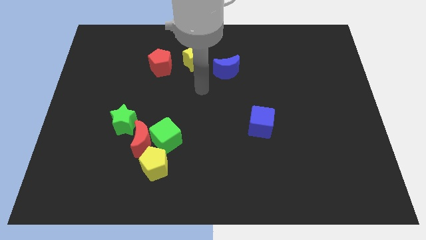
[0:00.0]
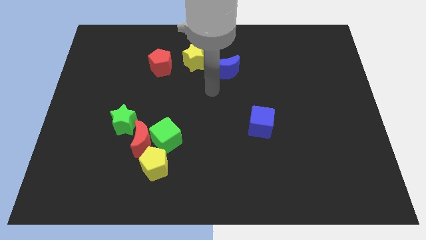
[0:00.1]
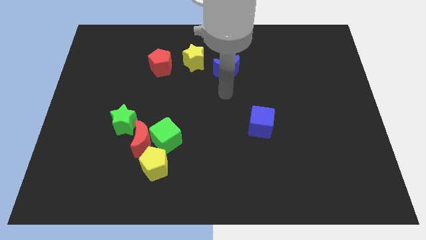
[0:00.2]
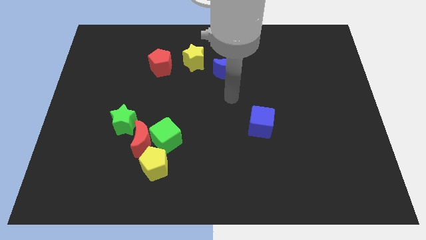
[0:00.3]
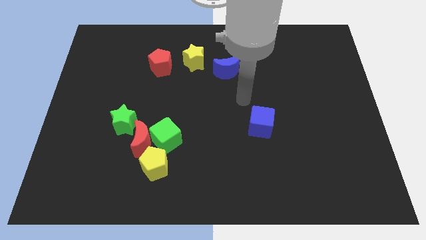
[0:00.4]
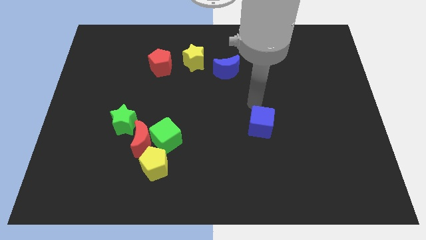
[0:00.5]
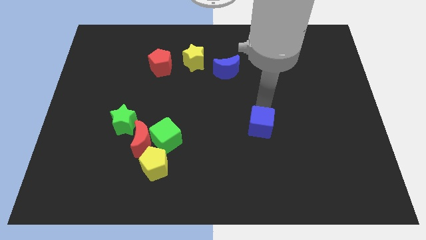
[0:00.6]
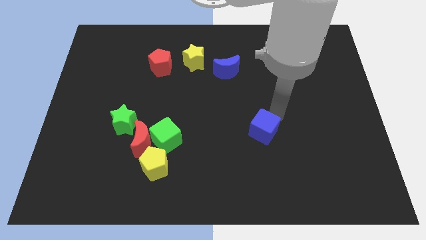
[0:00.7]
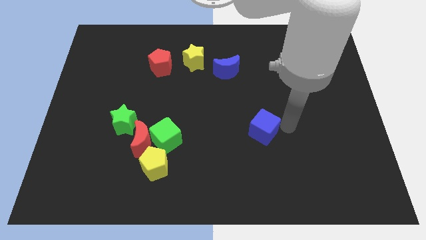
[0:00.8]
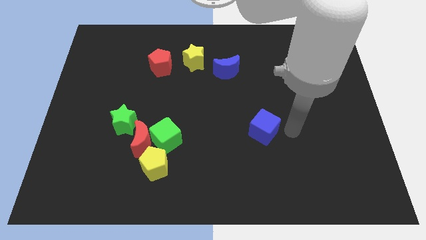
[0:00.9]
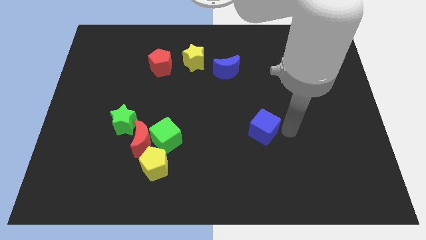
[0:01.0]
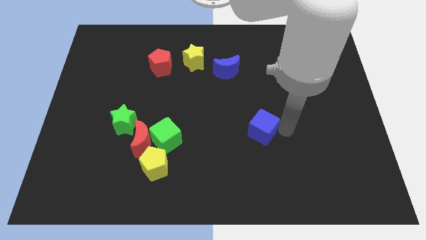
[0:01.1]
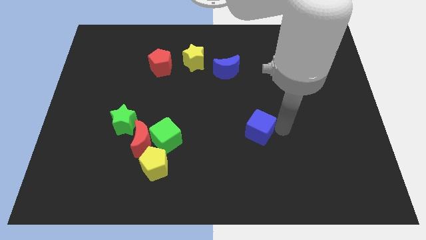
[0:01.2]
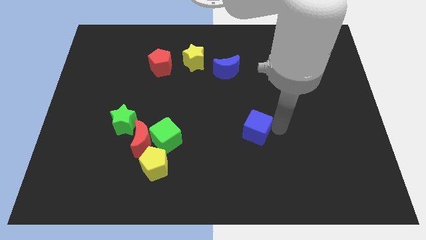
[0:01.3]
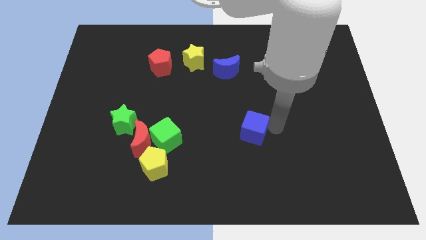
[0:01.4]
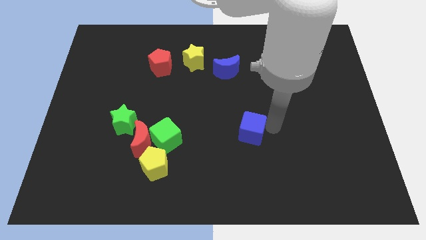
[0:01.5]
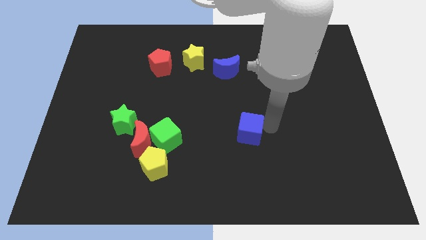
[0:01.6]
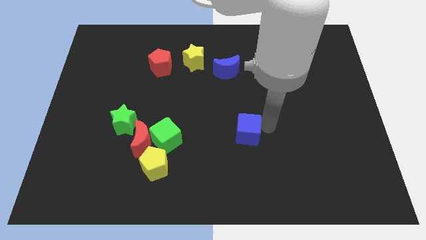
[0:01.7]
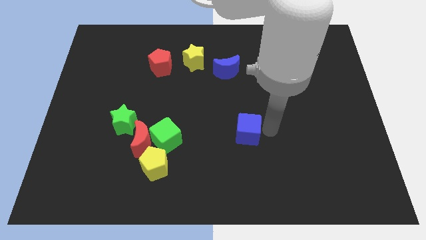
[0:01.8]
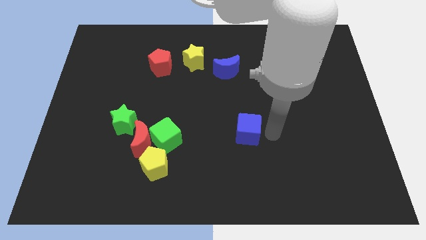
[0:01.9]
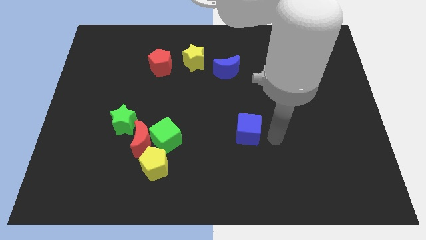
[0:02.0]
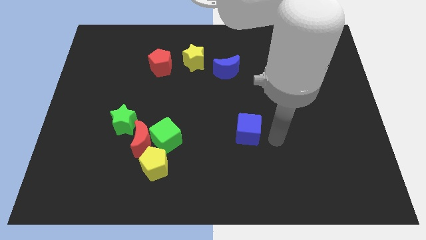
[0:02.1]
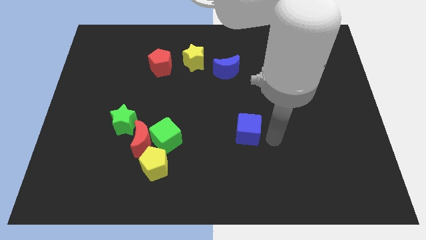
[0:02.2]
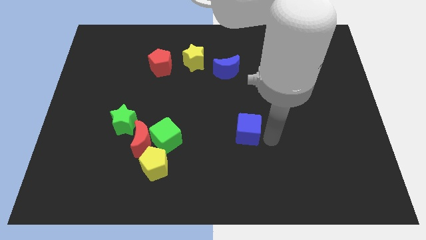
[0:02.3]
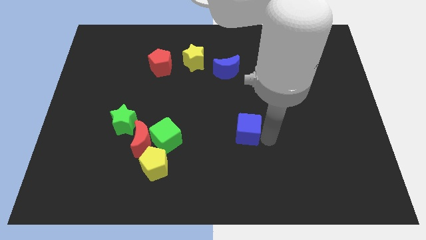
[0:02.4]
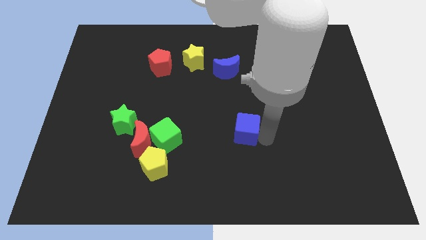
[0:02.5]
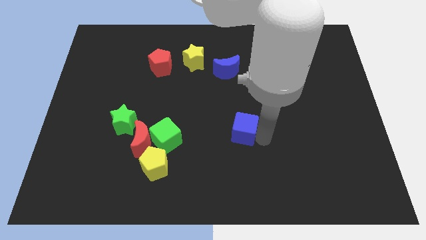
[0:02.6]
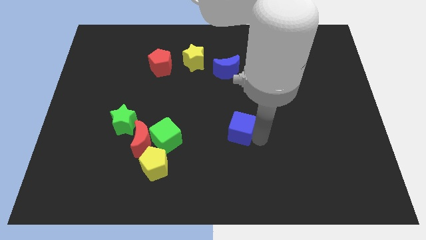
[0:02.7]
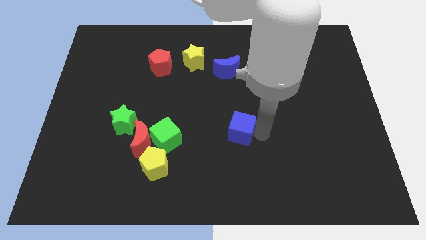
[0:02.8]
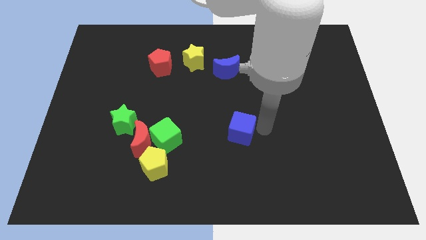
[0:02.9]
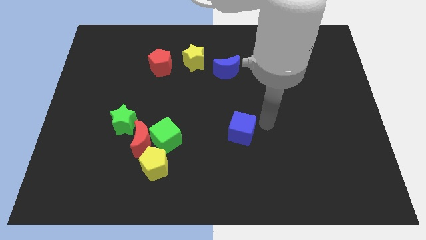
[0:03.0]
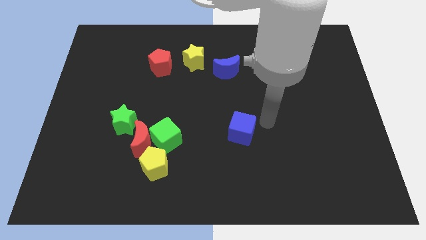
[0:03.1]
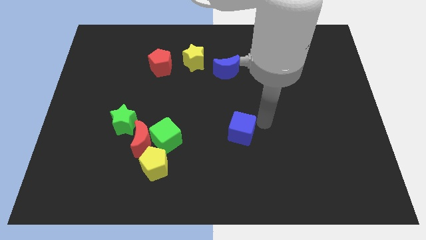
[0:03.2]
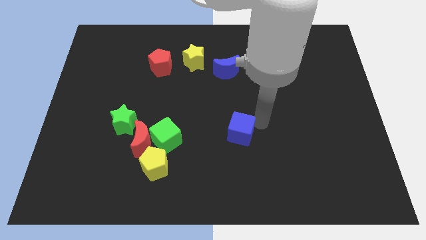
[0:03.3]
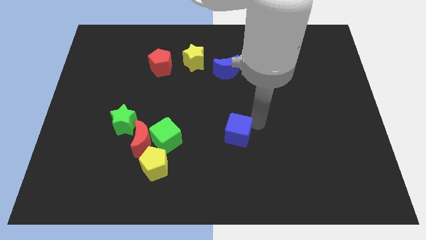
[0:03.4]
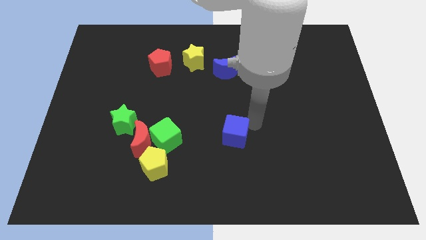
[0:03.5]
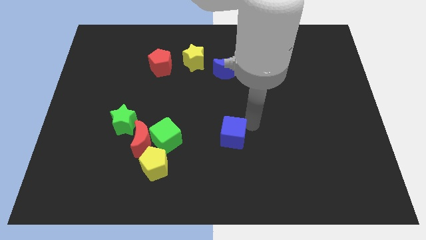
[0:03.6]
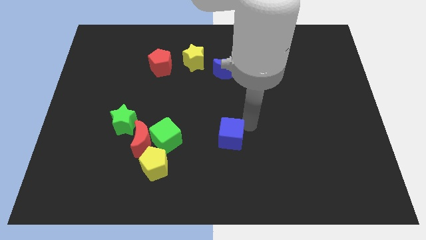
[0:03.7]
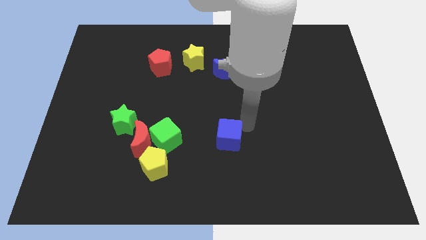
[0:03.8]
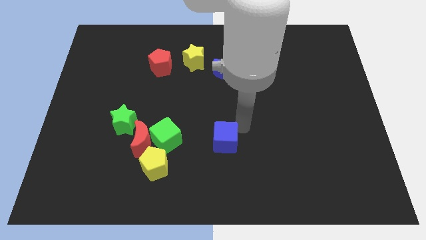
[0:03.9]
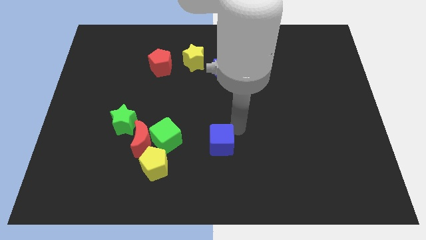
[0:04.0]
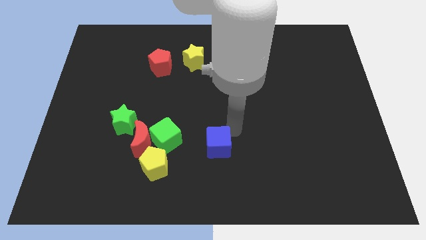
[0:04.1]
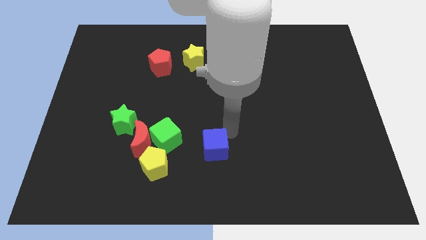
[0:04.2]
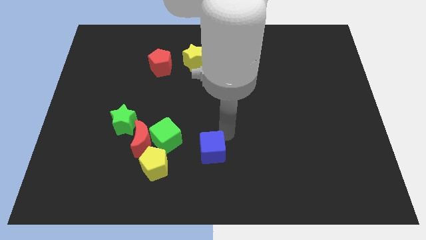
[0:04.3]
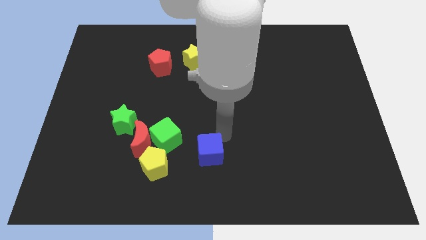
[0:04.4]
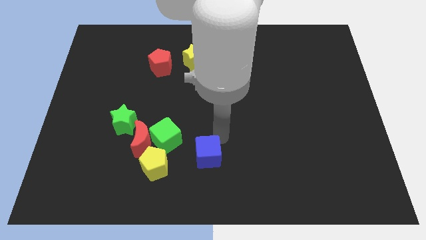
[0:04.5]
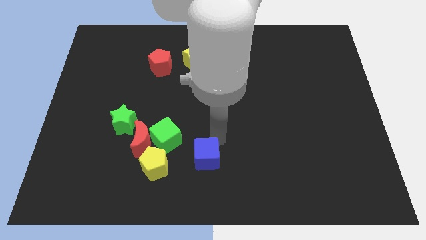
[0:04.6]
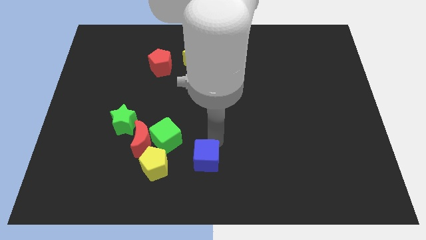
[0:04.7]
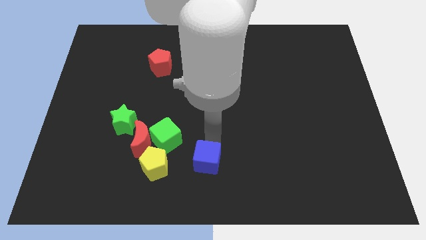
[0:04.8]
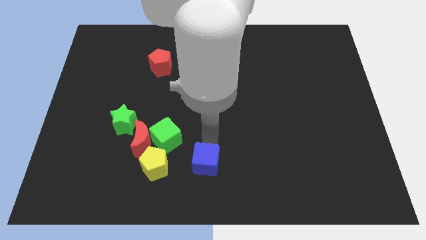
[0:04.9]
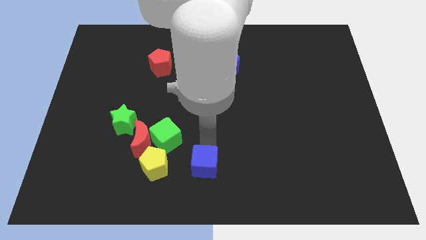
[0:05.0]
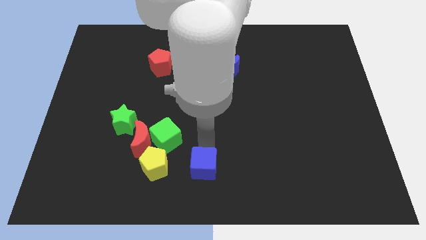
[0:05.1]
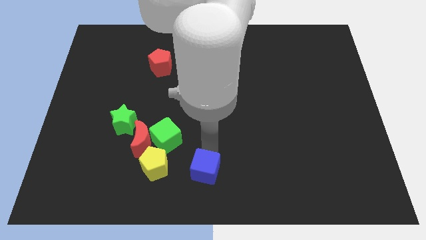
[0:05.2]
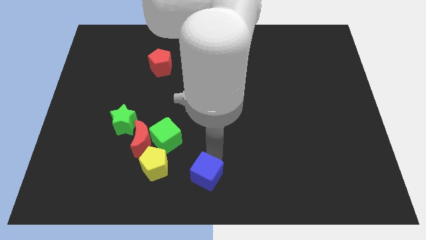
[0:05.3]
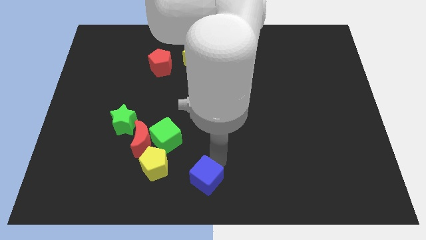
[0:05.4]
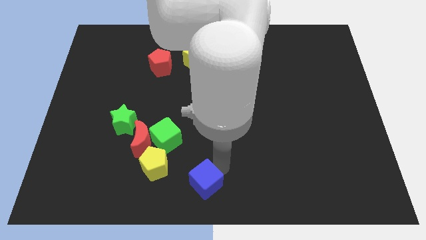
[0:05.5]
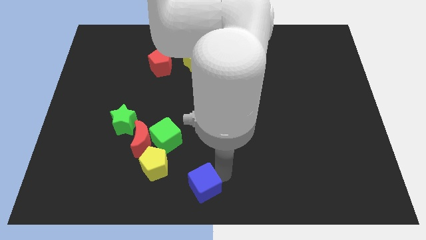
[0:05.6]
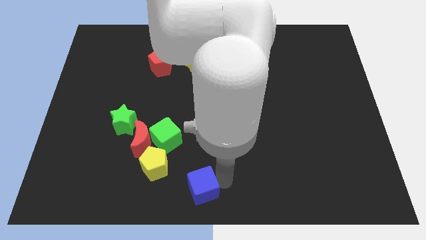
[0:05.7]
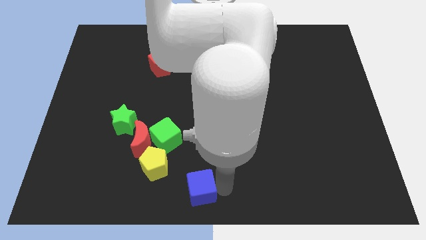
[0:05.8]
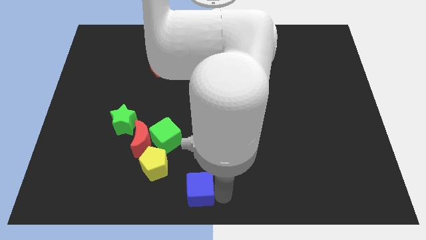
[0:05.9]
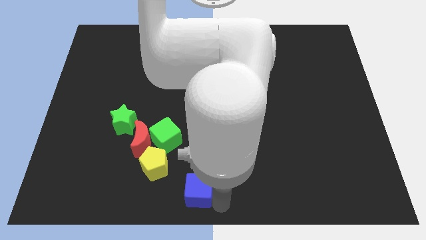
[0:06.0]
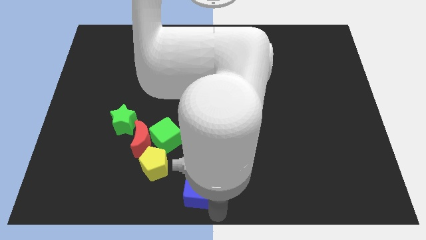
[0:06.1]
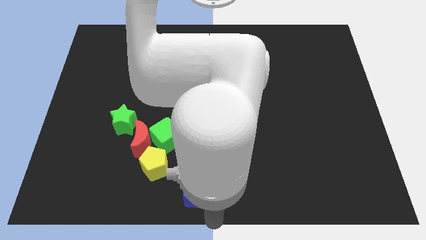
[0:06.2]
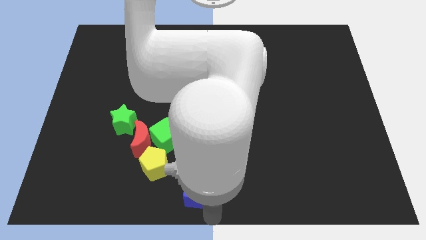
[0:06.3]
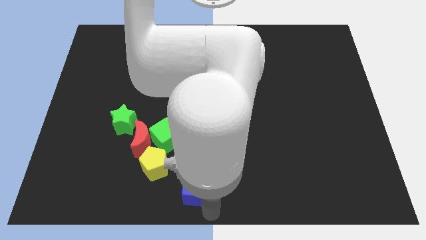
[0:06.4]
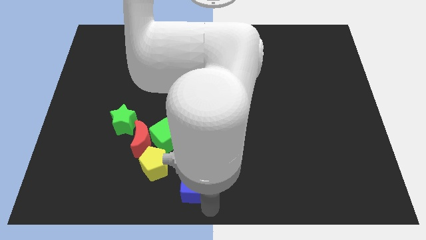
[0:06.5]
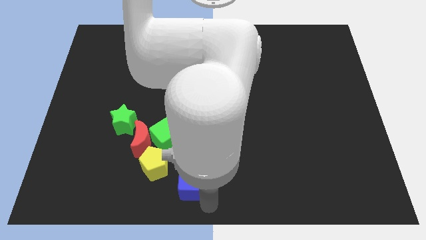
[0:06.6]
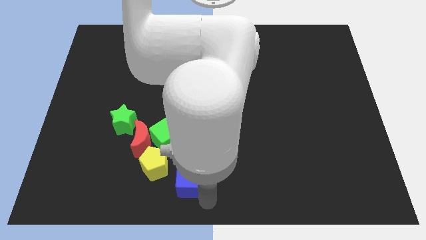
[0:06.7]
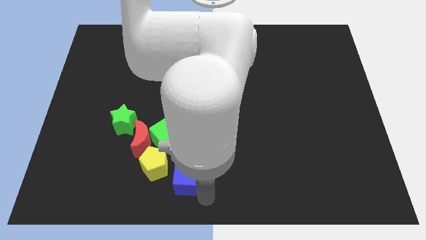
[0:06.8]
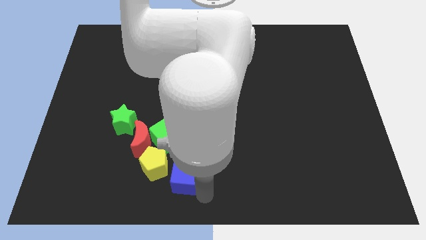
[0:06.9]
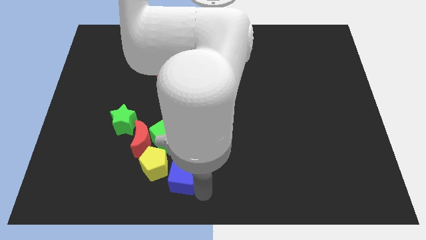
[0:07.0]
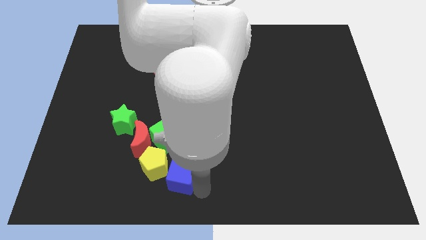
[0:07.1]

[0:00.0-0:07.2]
put the blue cube close to the yellow pentagon
